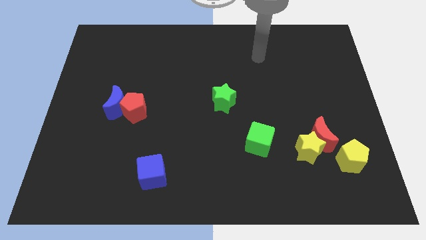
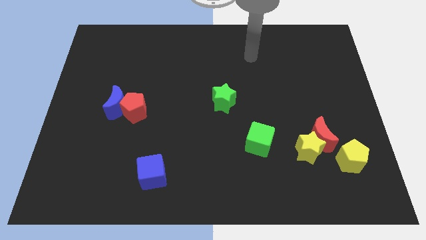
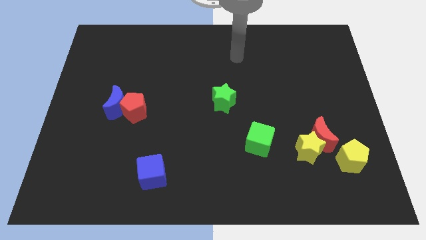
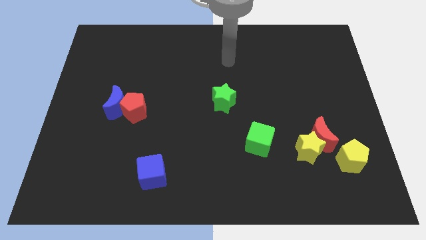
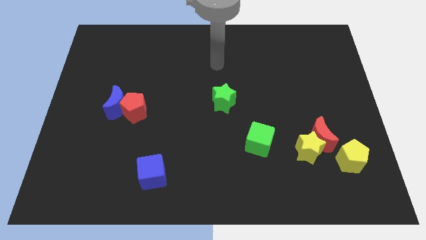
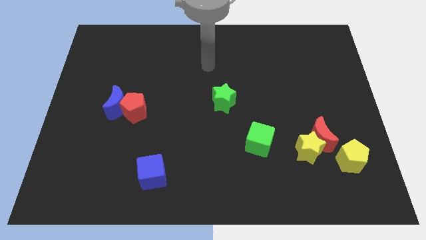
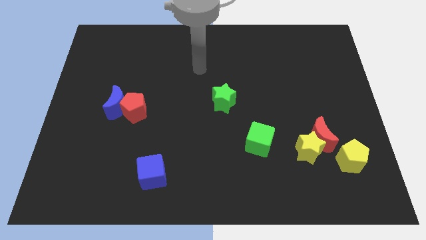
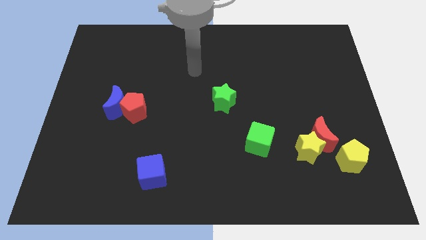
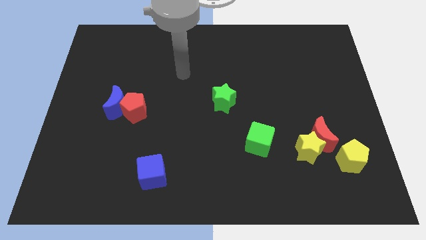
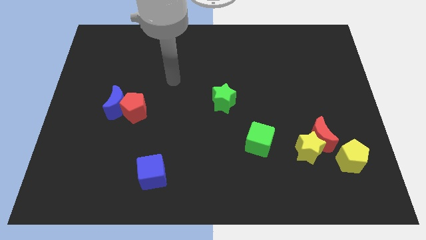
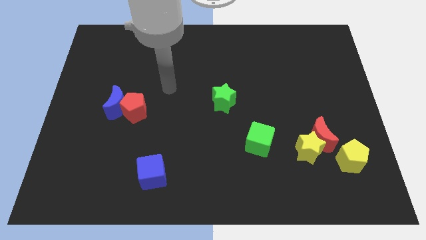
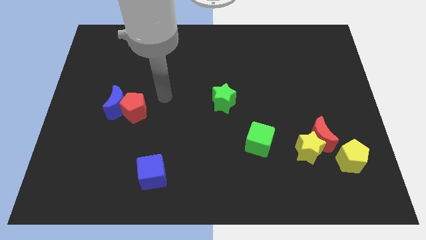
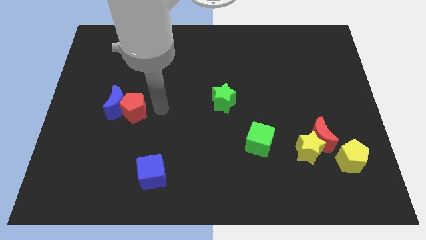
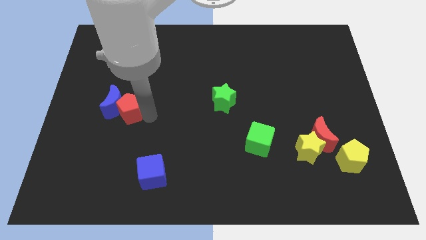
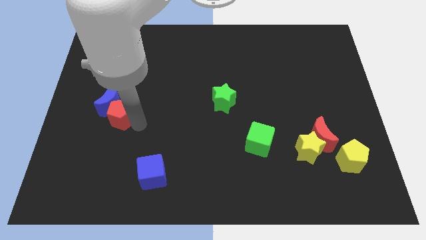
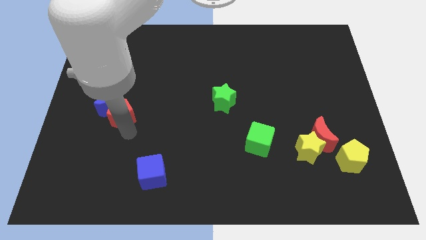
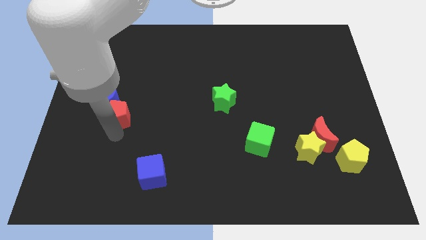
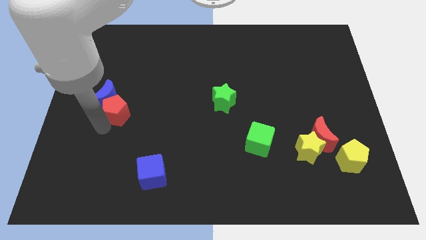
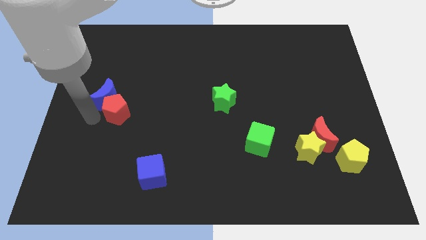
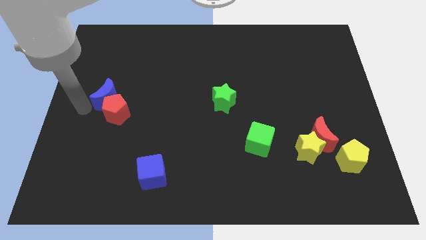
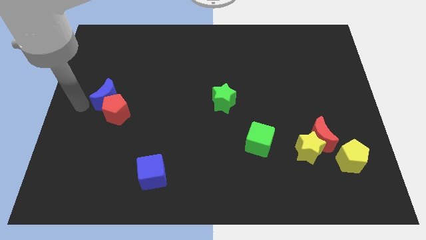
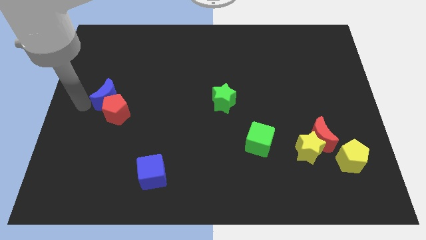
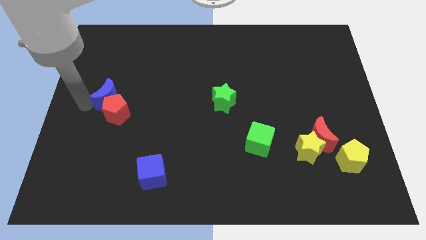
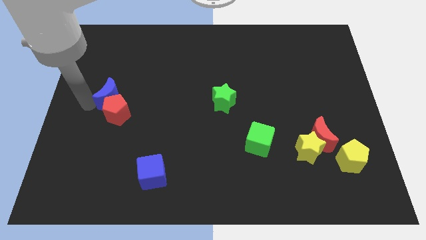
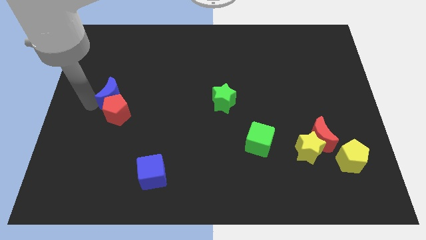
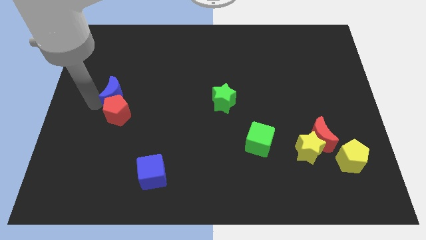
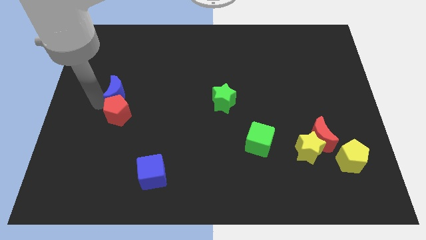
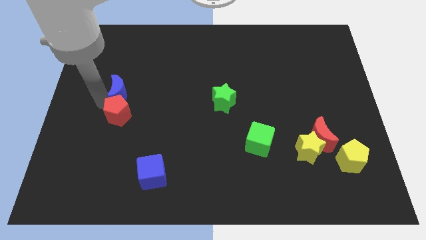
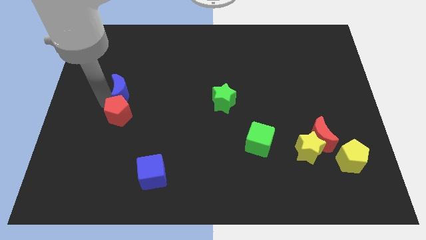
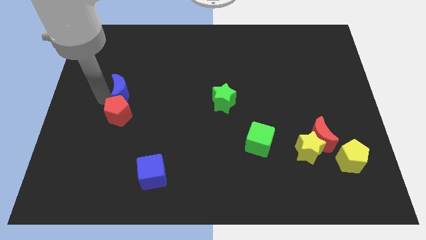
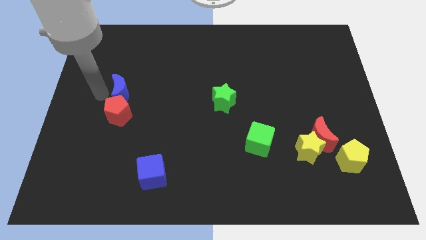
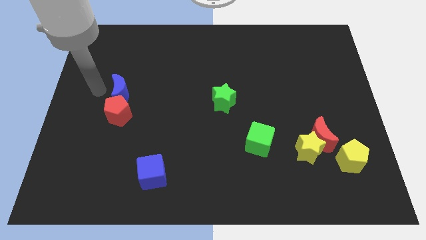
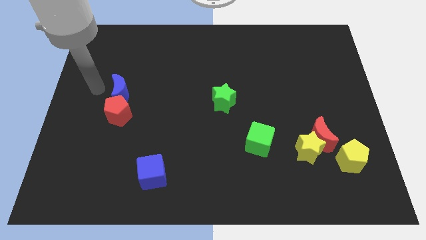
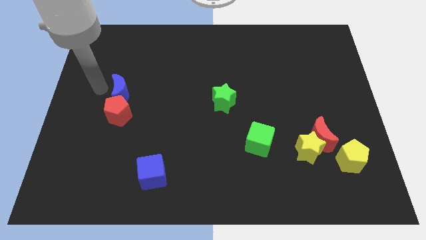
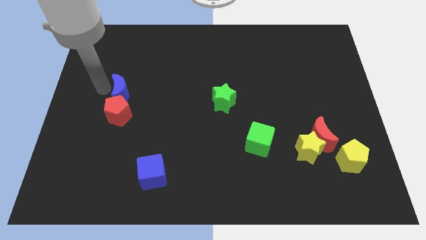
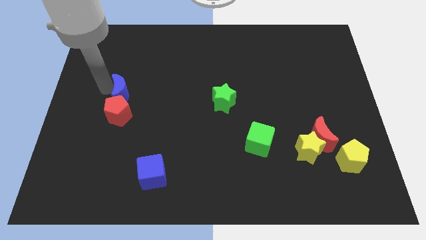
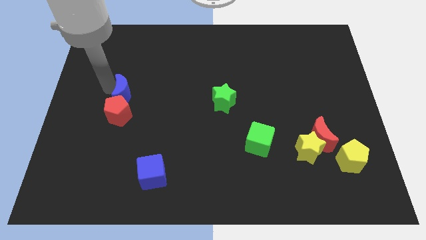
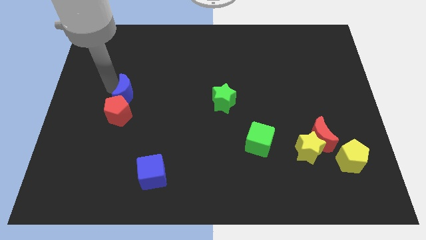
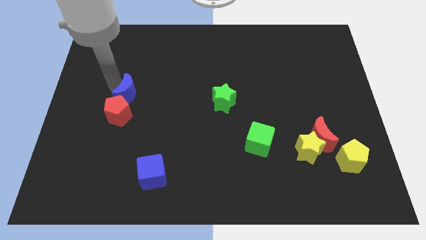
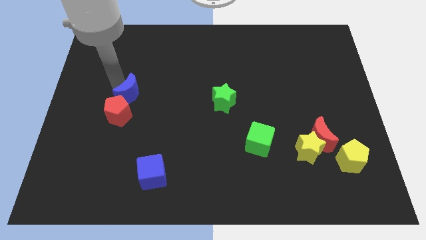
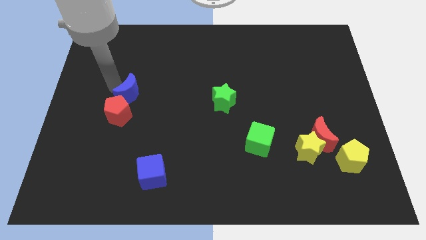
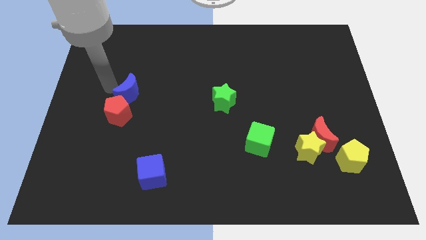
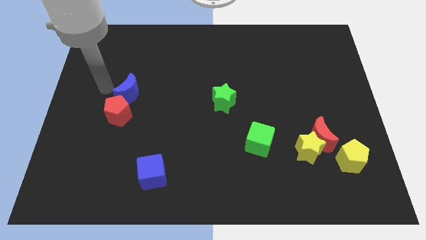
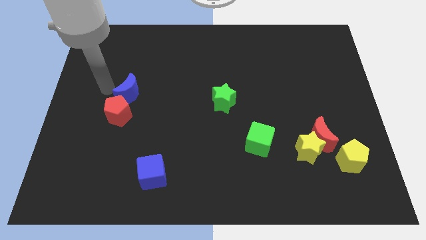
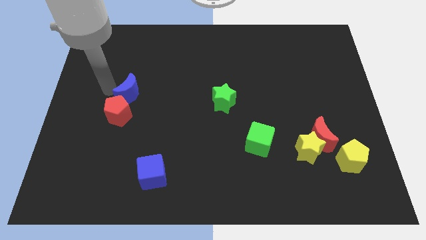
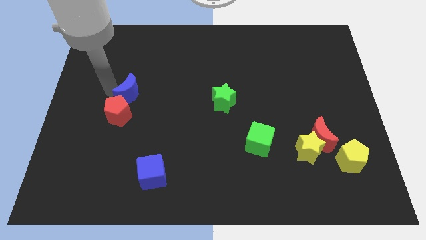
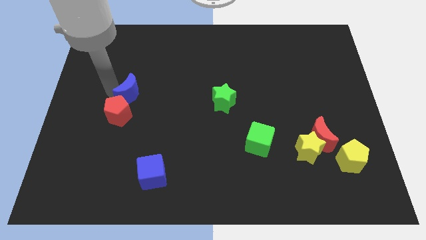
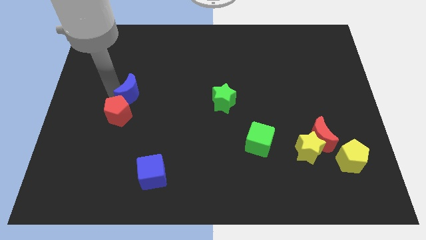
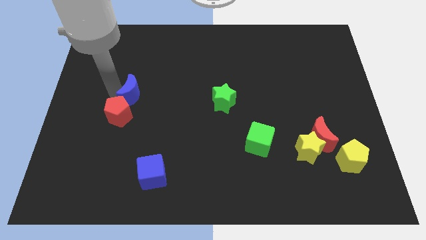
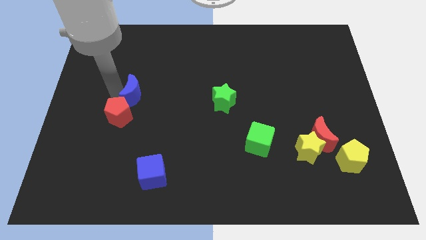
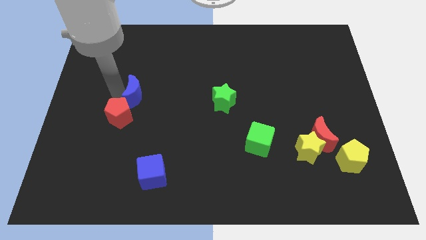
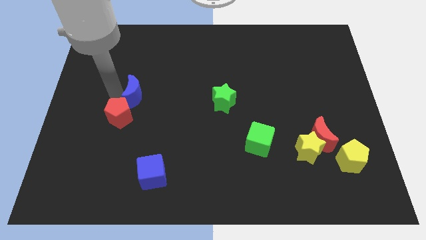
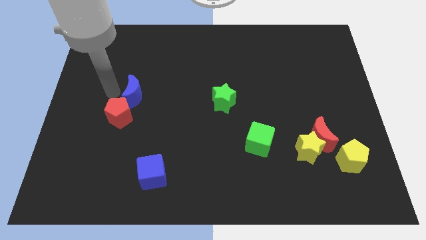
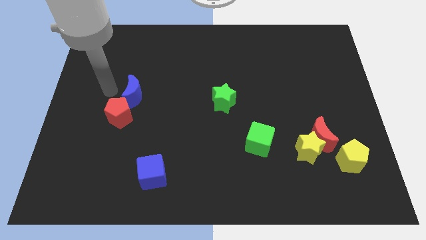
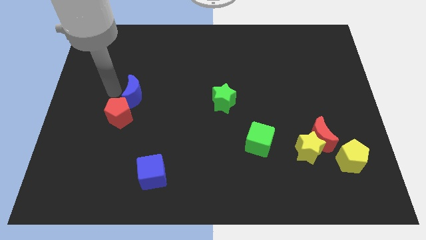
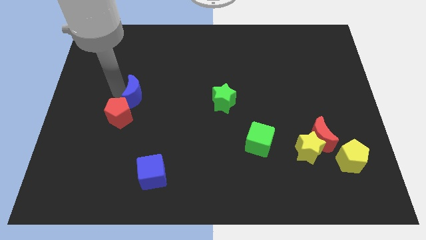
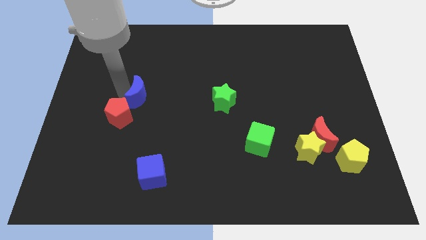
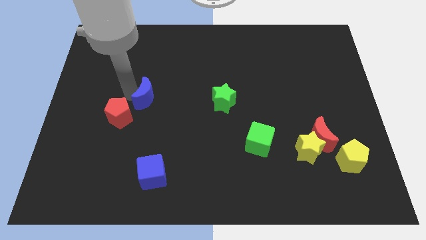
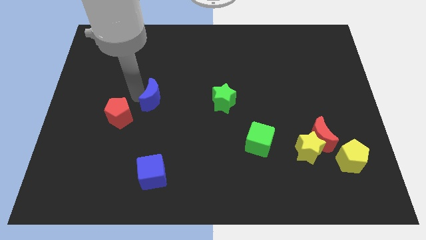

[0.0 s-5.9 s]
move the blue moon right a little bit

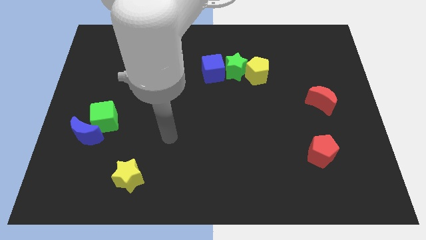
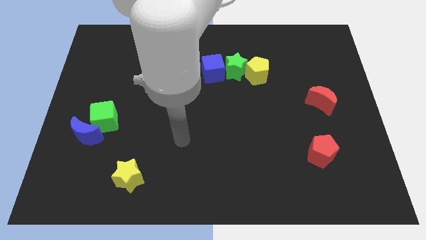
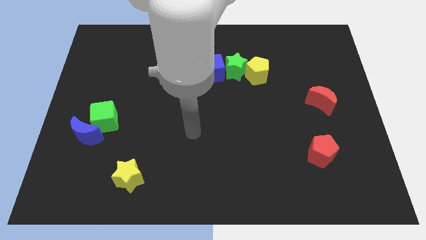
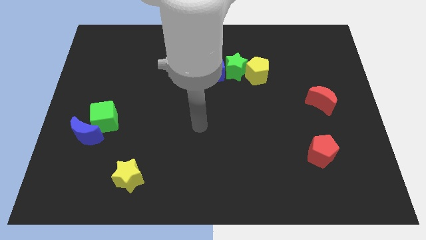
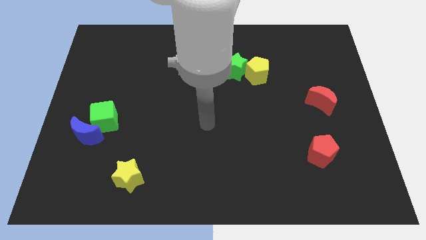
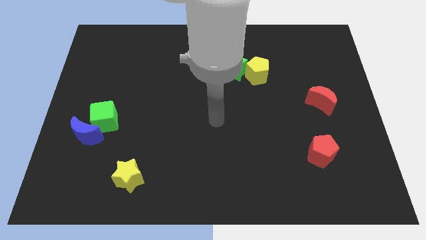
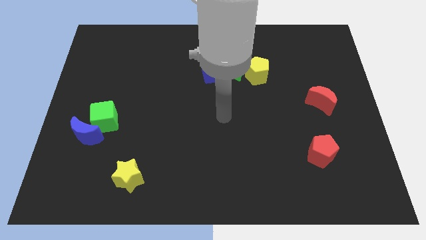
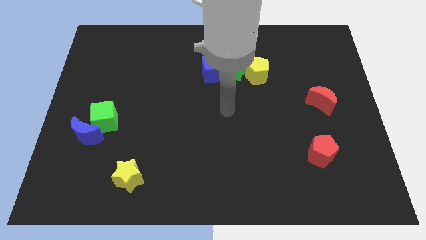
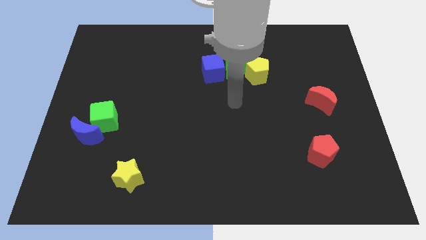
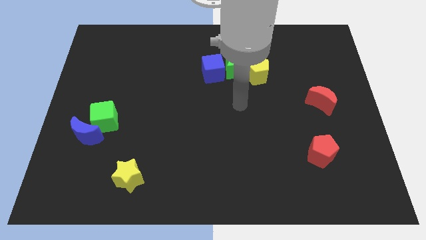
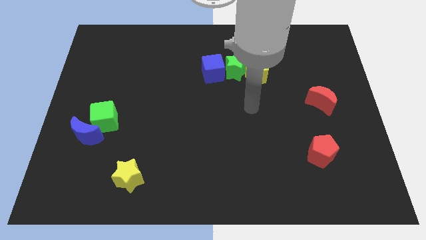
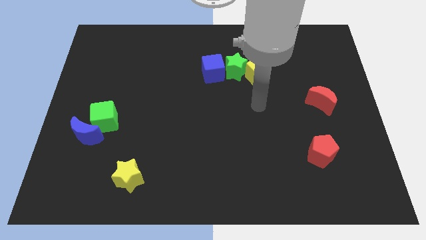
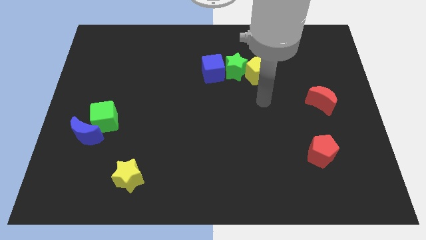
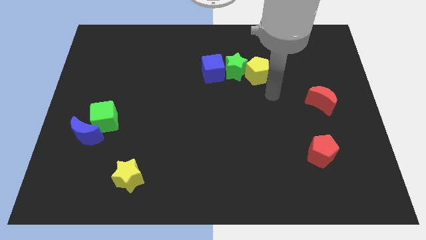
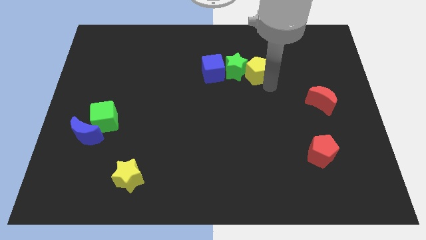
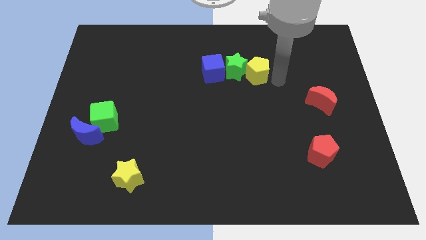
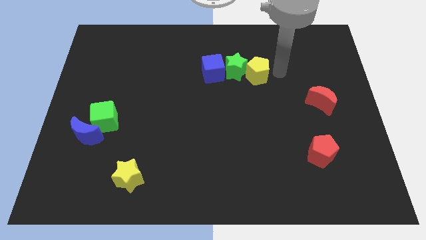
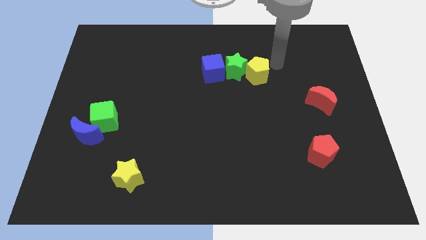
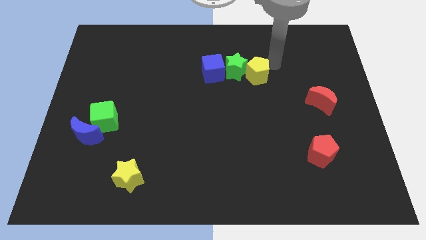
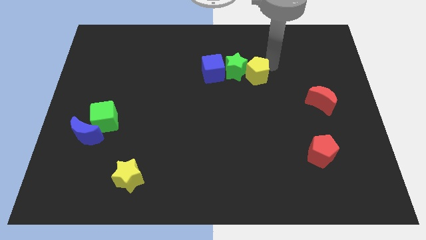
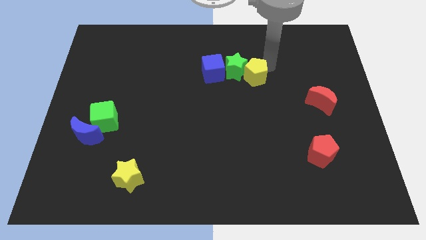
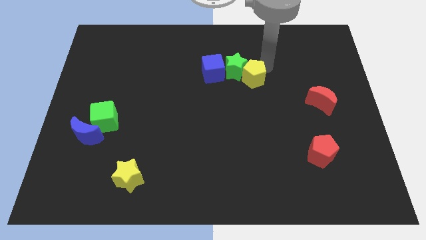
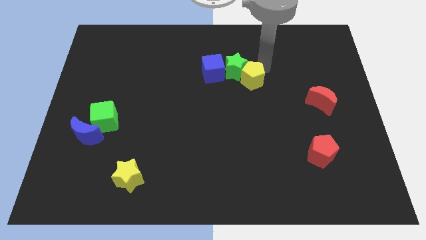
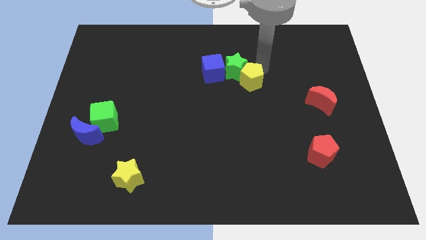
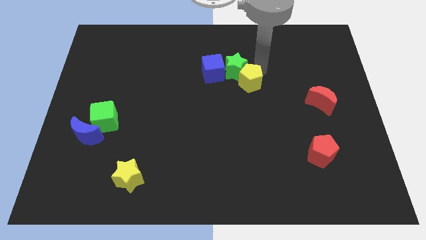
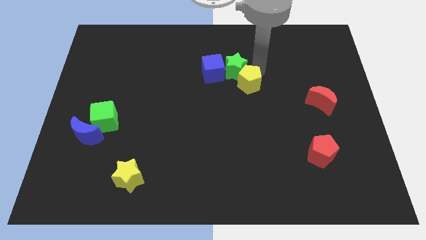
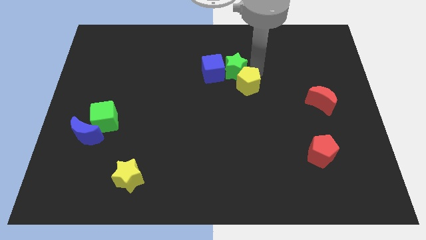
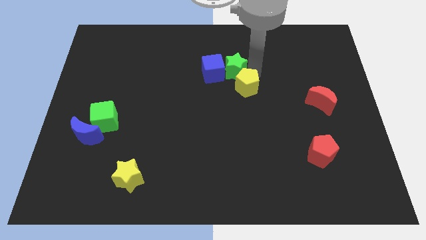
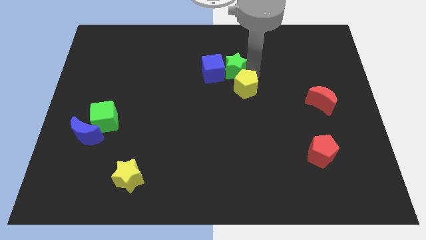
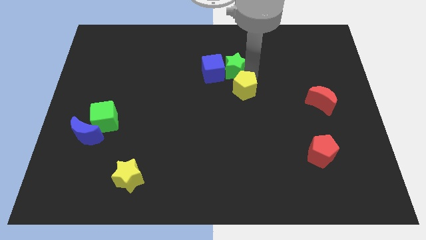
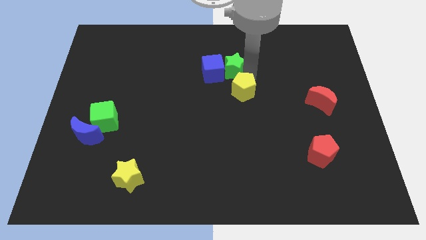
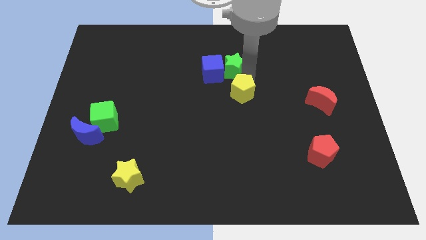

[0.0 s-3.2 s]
slide the yellow pentagon downwards and to the left diagonally a little bit
